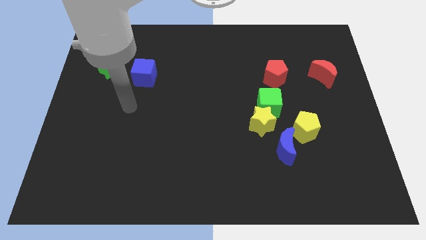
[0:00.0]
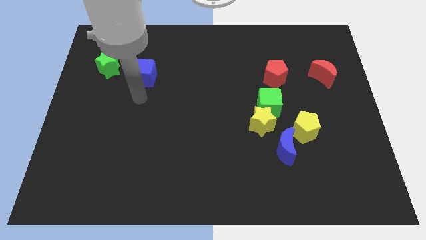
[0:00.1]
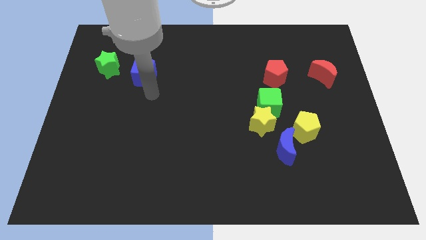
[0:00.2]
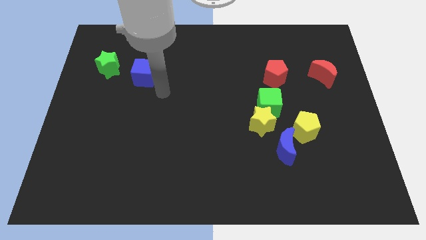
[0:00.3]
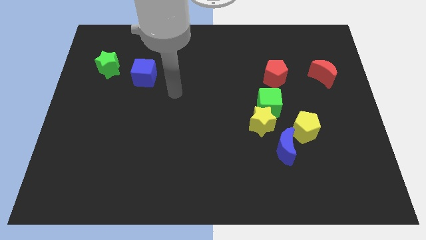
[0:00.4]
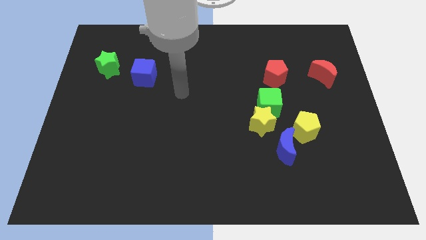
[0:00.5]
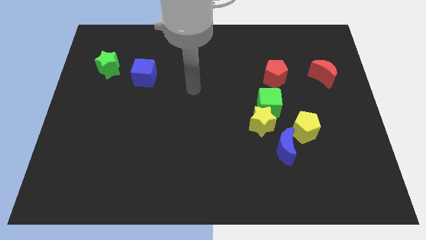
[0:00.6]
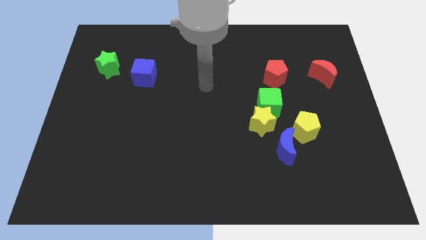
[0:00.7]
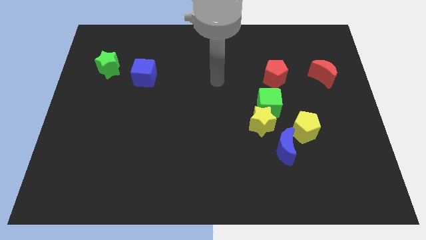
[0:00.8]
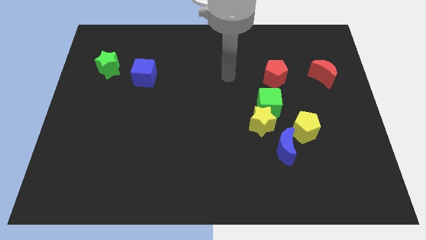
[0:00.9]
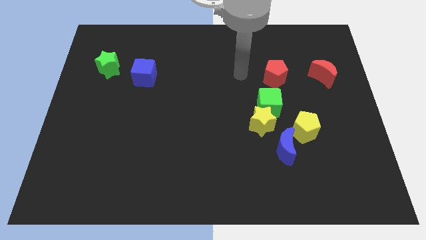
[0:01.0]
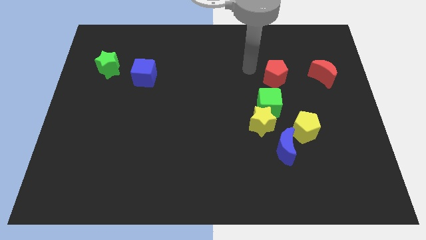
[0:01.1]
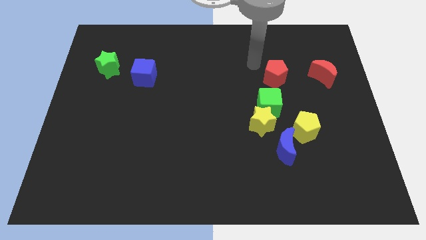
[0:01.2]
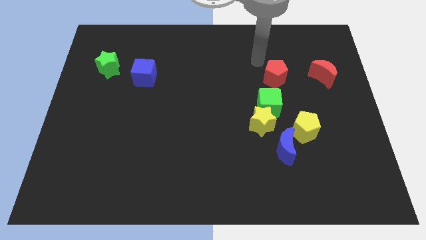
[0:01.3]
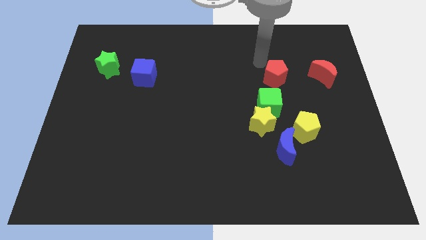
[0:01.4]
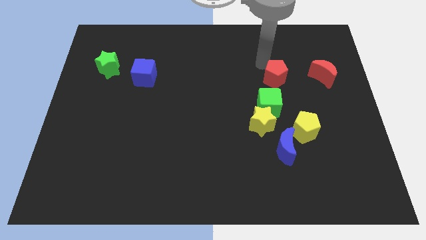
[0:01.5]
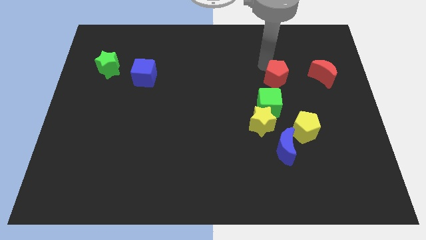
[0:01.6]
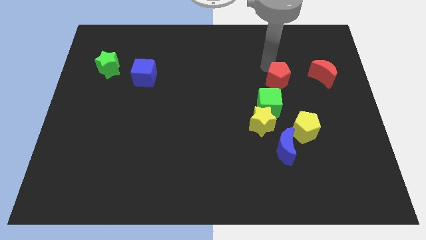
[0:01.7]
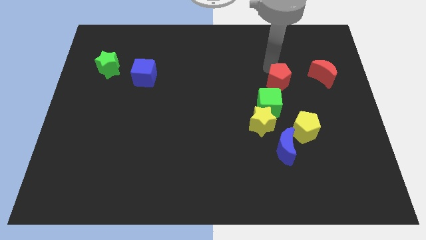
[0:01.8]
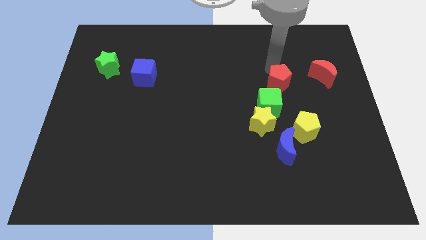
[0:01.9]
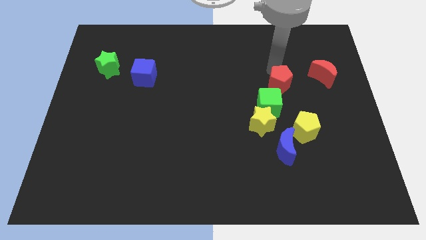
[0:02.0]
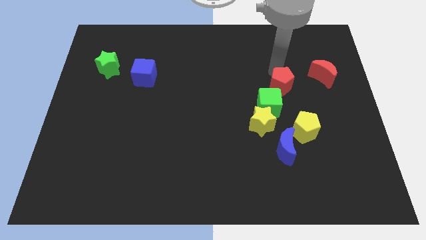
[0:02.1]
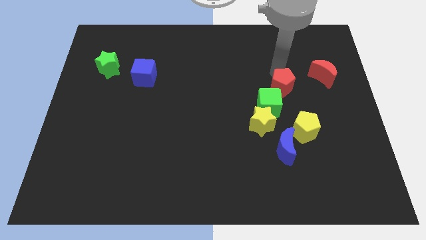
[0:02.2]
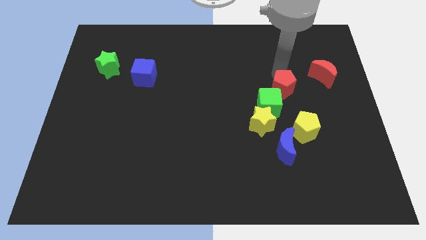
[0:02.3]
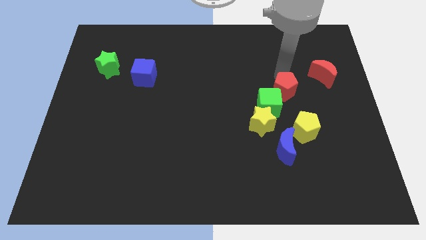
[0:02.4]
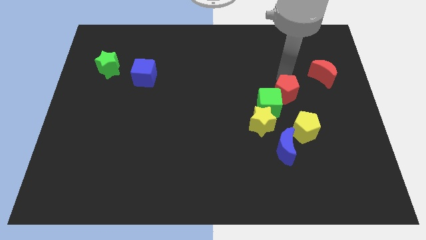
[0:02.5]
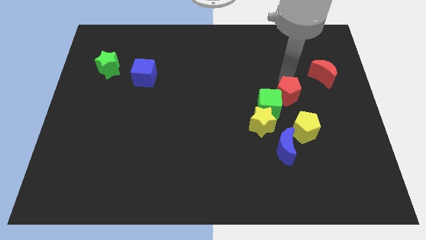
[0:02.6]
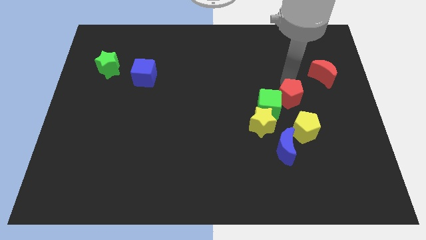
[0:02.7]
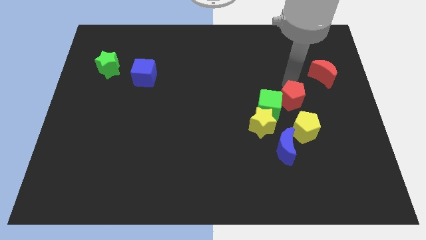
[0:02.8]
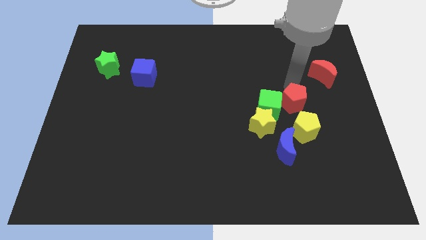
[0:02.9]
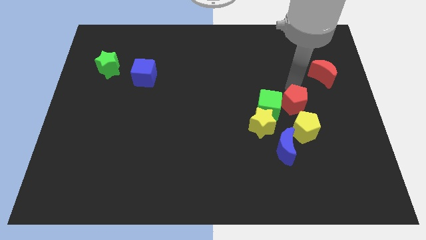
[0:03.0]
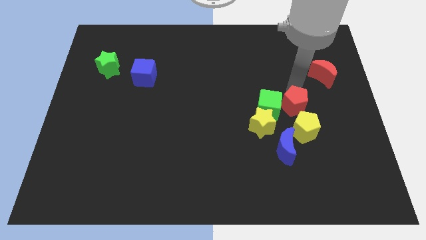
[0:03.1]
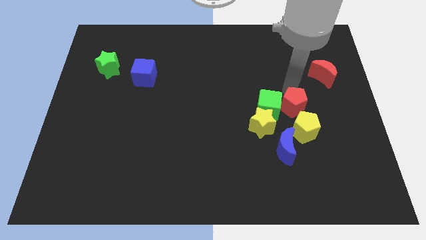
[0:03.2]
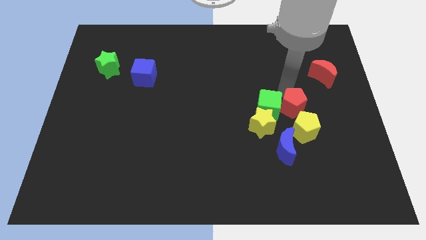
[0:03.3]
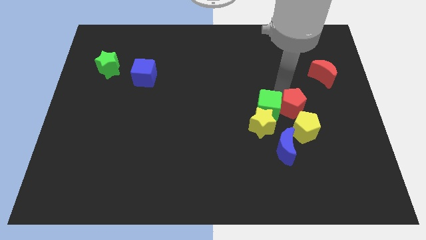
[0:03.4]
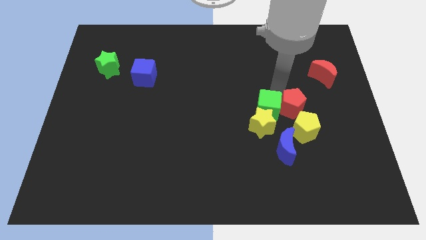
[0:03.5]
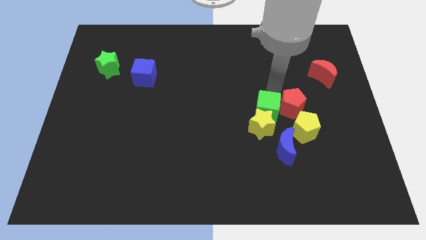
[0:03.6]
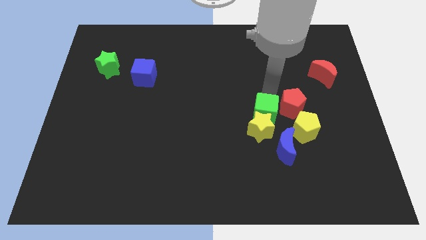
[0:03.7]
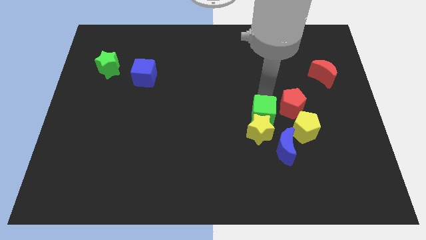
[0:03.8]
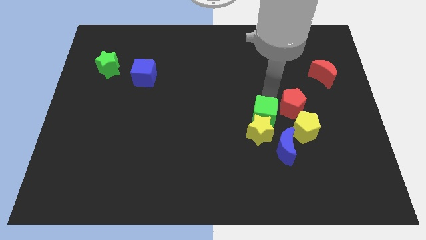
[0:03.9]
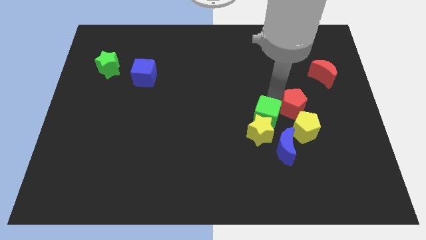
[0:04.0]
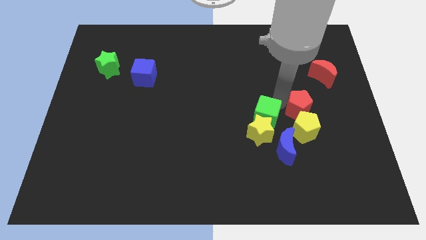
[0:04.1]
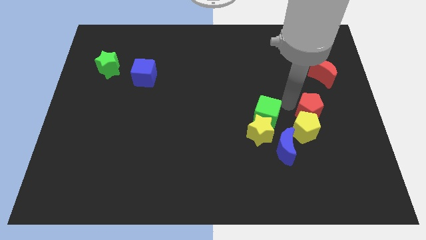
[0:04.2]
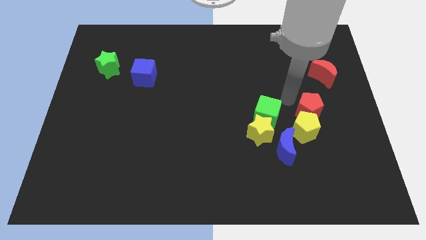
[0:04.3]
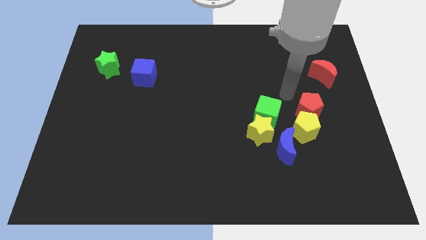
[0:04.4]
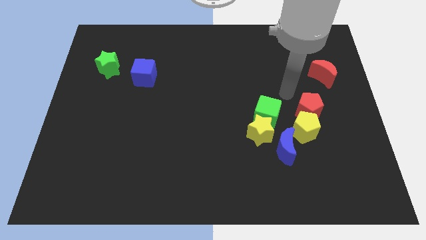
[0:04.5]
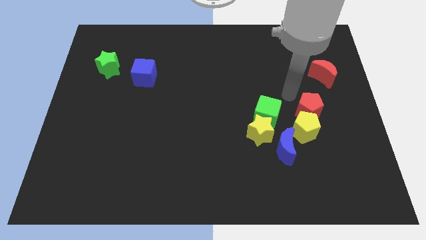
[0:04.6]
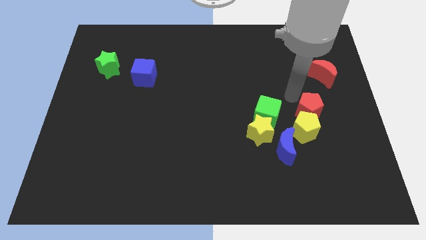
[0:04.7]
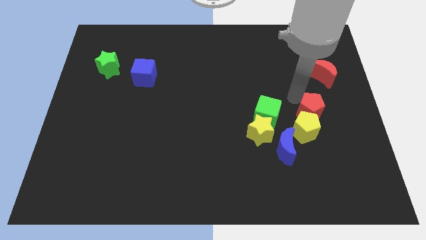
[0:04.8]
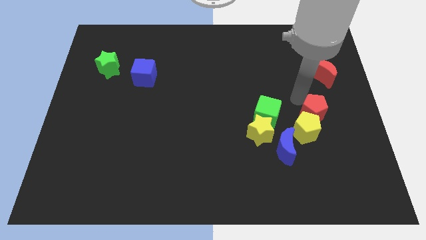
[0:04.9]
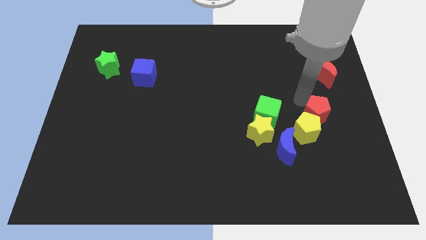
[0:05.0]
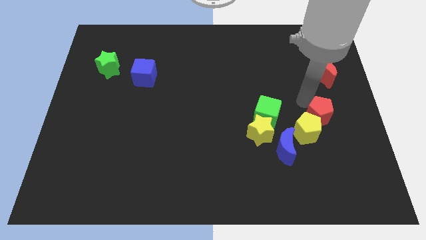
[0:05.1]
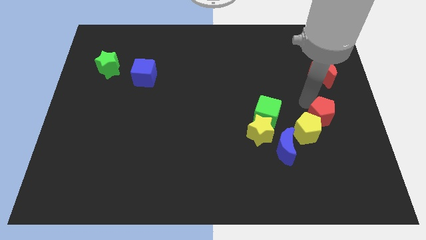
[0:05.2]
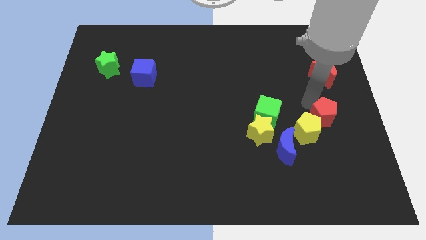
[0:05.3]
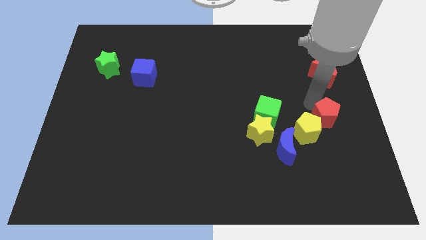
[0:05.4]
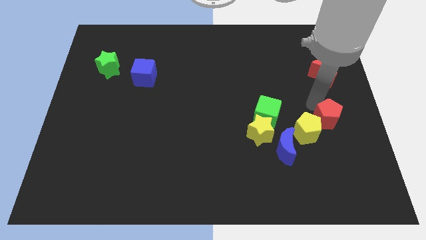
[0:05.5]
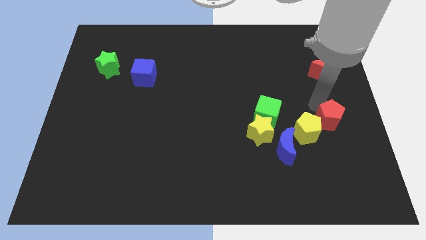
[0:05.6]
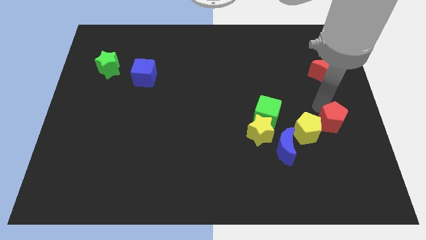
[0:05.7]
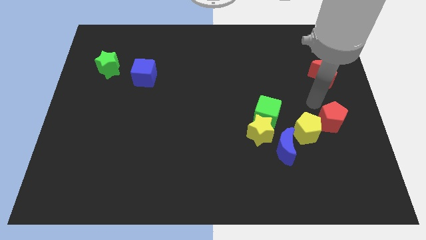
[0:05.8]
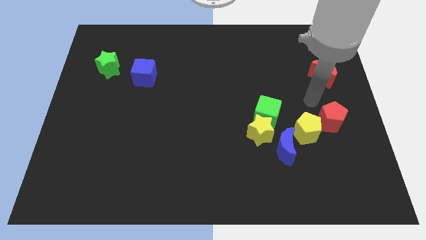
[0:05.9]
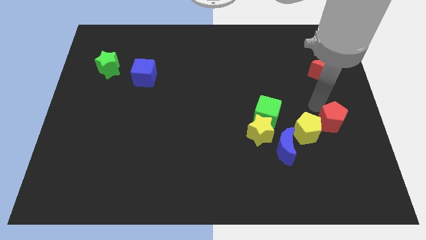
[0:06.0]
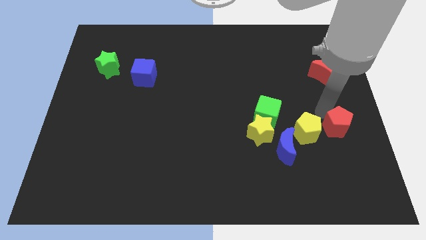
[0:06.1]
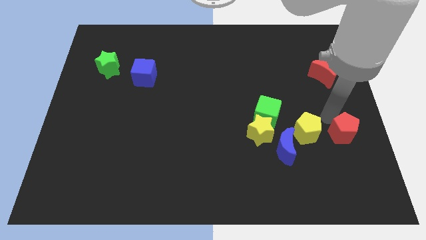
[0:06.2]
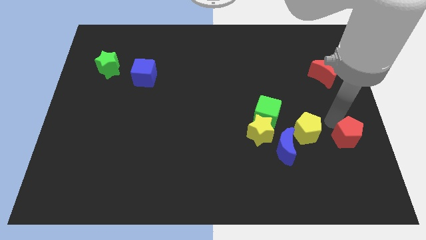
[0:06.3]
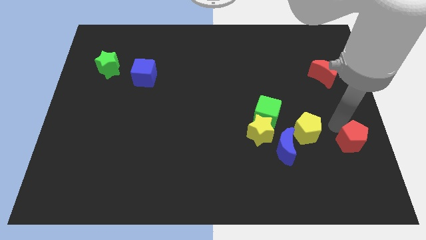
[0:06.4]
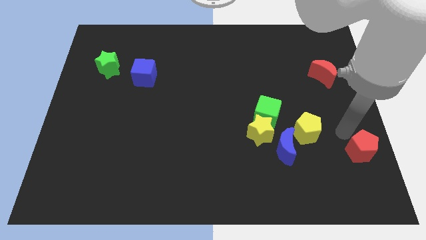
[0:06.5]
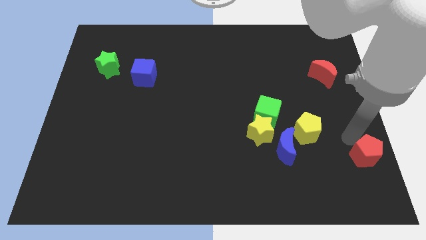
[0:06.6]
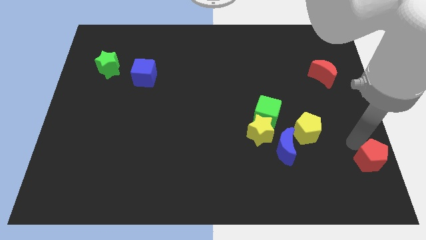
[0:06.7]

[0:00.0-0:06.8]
push the red pentagon to the lower right corner
